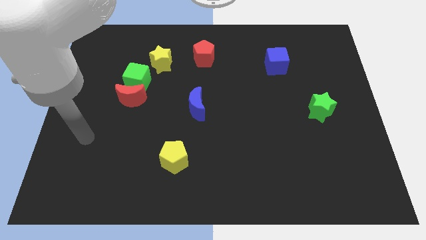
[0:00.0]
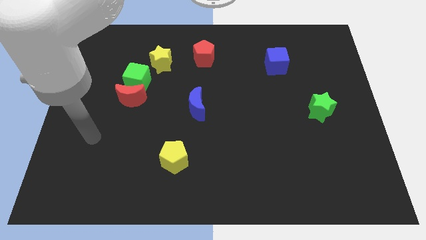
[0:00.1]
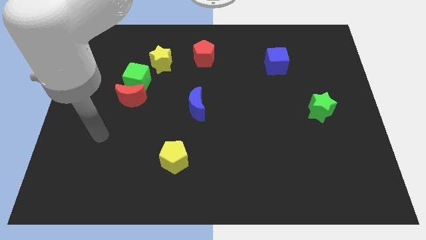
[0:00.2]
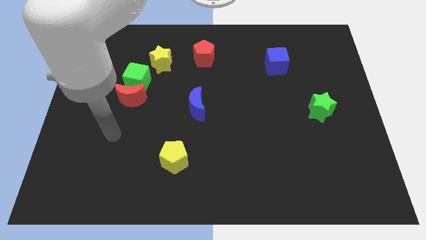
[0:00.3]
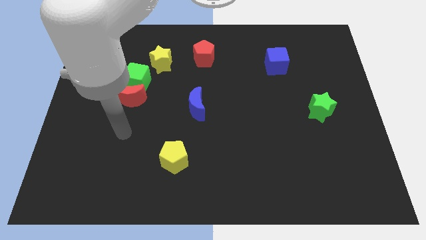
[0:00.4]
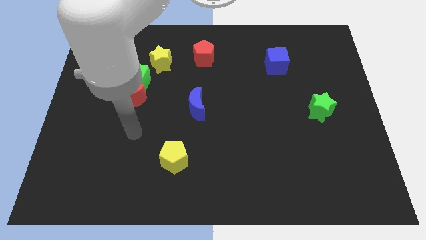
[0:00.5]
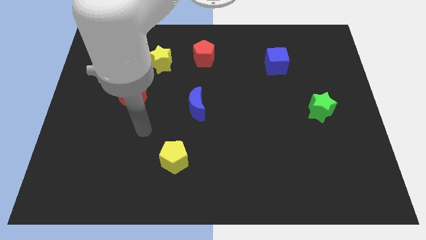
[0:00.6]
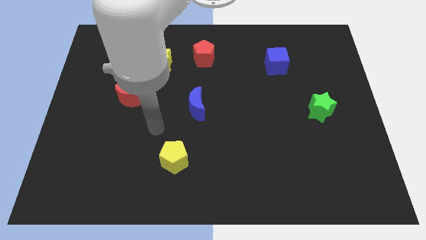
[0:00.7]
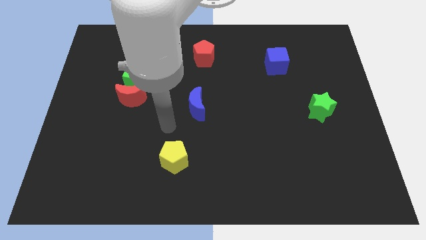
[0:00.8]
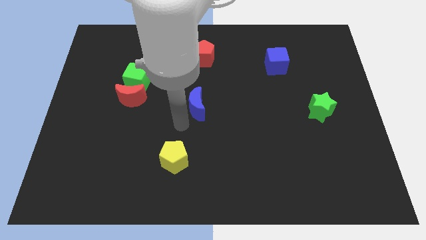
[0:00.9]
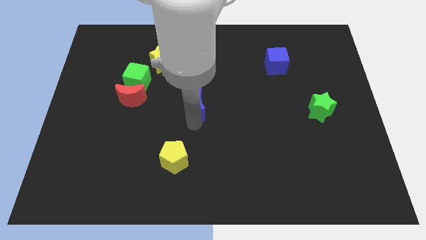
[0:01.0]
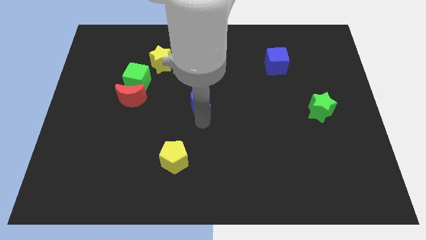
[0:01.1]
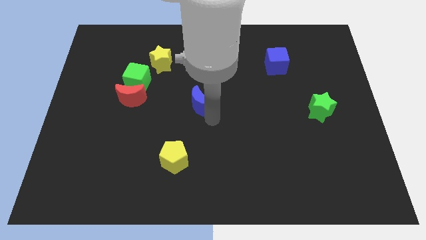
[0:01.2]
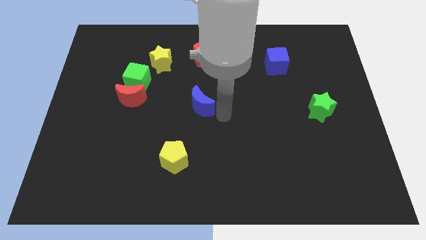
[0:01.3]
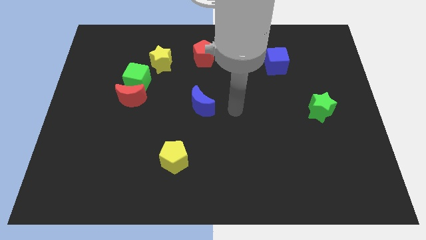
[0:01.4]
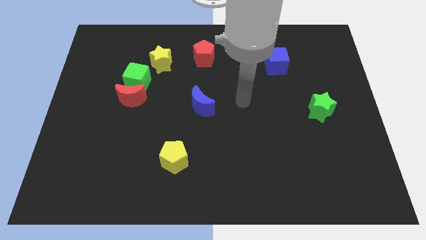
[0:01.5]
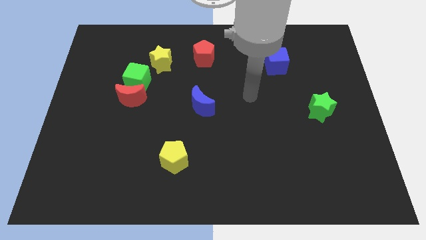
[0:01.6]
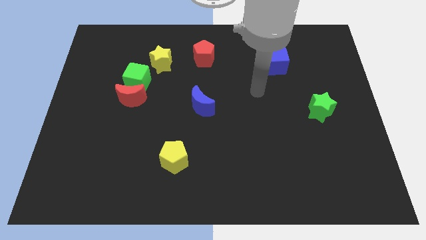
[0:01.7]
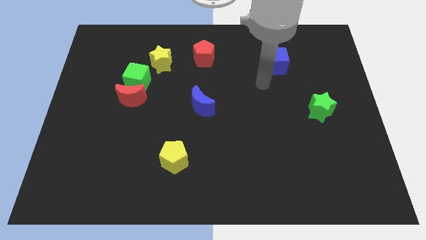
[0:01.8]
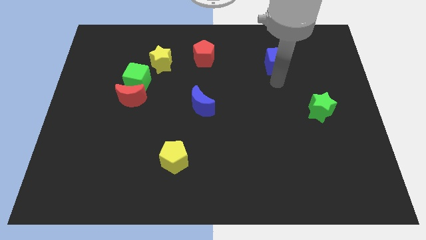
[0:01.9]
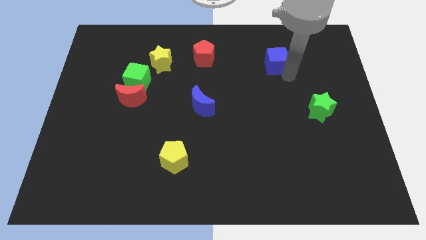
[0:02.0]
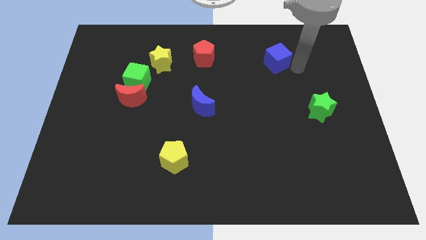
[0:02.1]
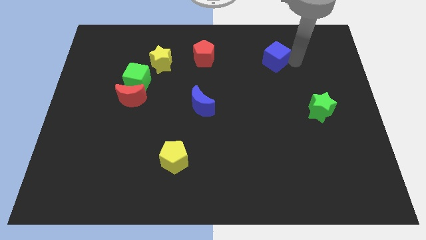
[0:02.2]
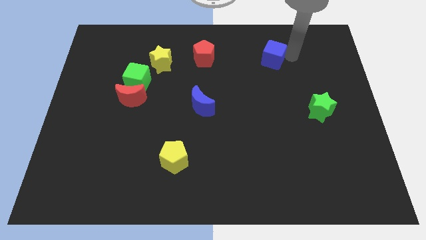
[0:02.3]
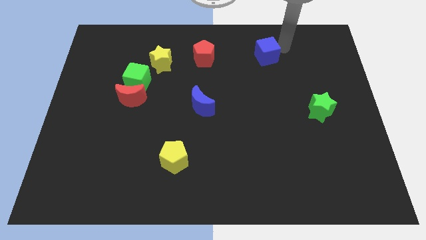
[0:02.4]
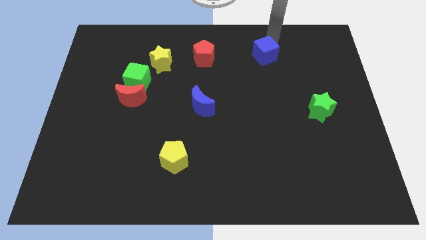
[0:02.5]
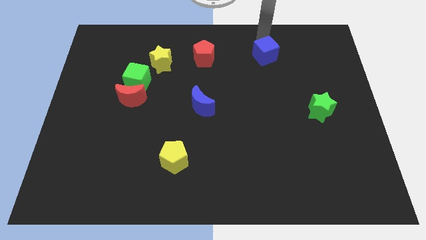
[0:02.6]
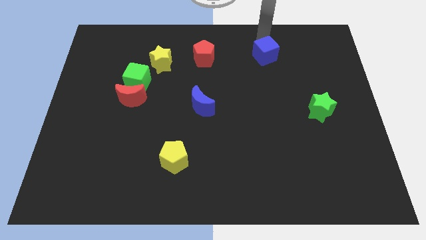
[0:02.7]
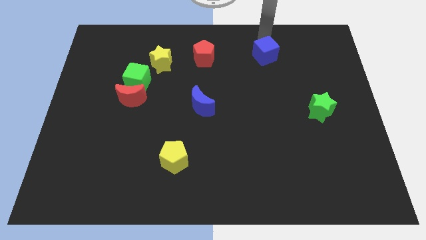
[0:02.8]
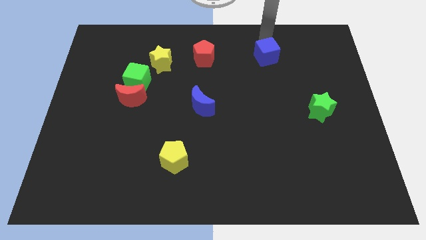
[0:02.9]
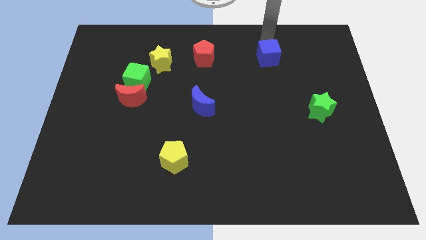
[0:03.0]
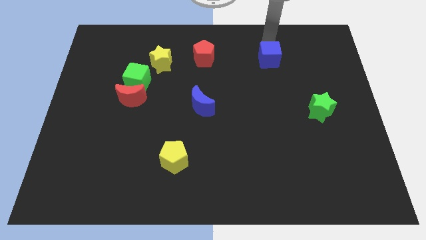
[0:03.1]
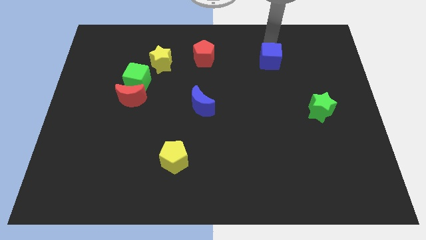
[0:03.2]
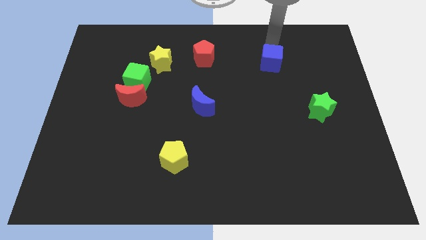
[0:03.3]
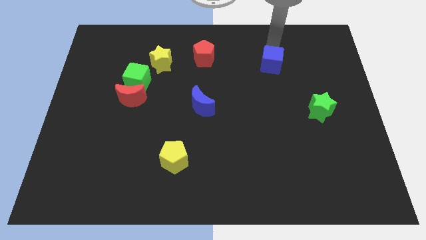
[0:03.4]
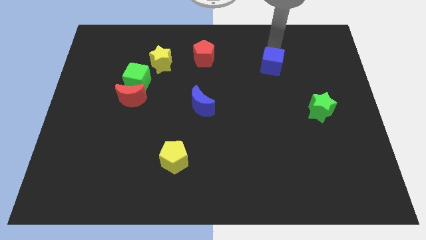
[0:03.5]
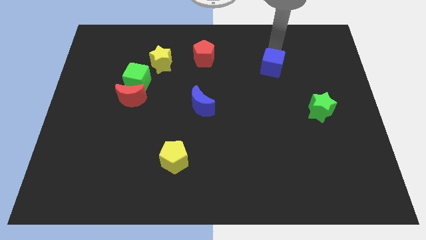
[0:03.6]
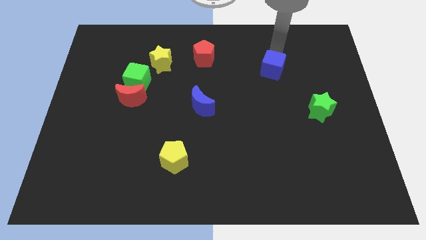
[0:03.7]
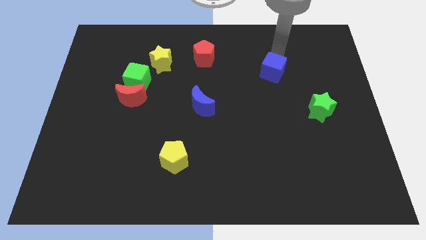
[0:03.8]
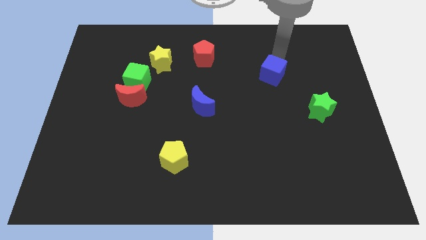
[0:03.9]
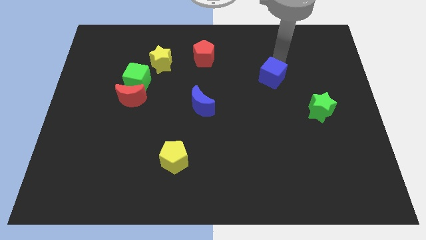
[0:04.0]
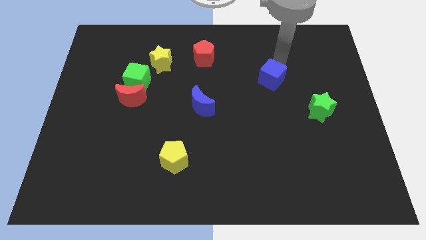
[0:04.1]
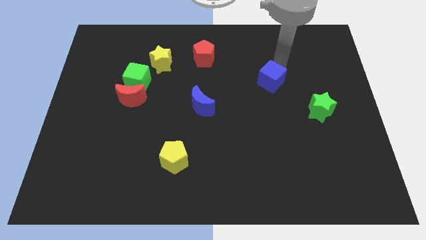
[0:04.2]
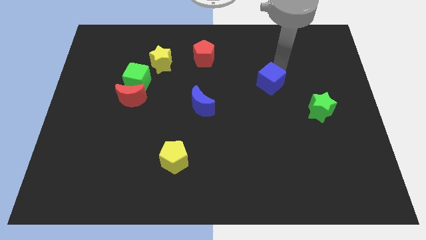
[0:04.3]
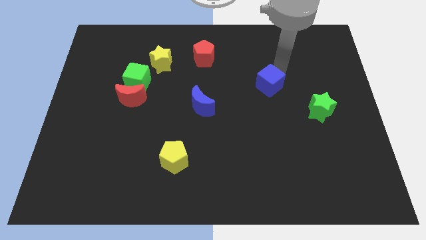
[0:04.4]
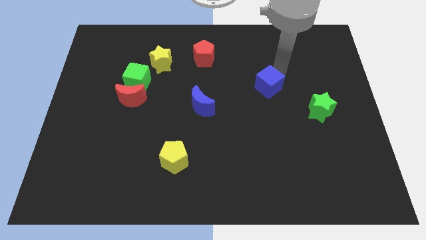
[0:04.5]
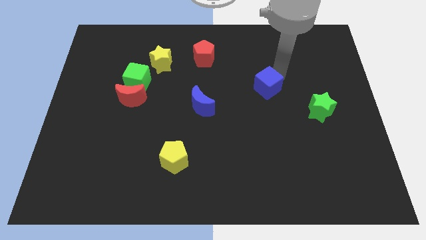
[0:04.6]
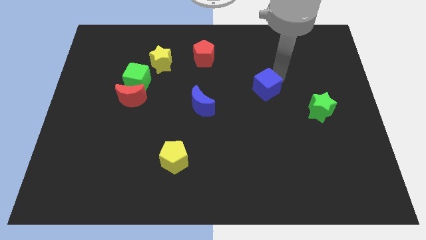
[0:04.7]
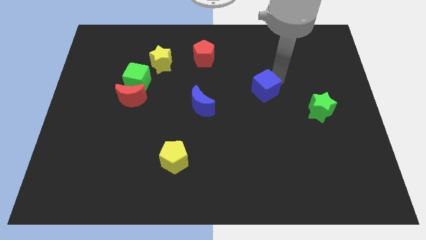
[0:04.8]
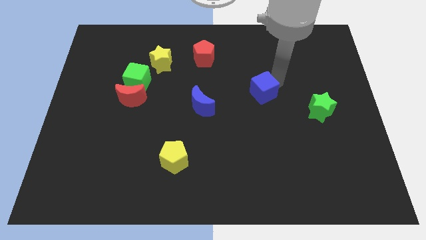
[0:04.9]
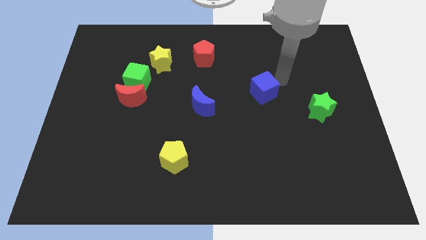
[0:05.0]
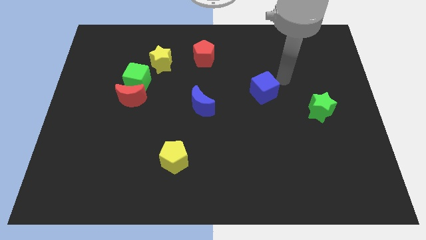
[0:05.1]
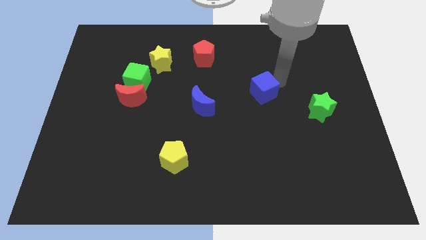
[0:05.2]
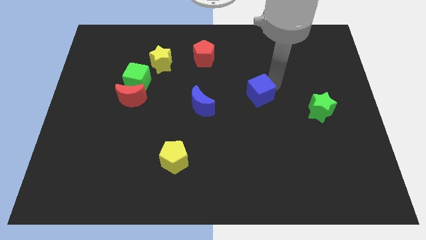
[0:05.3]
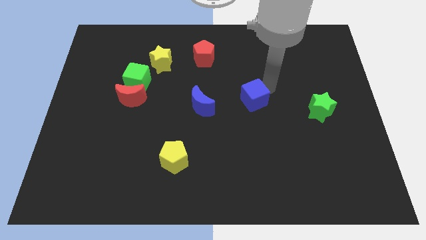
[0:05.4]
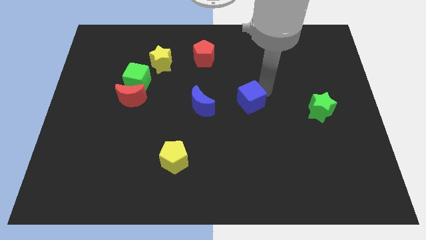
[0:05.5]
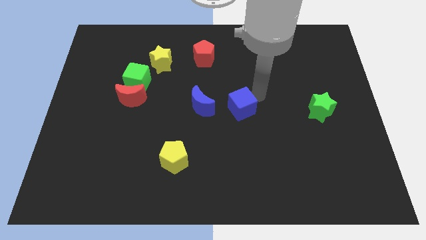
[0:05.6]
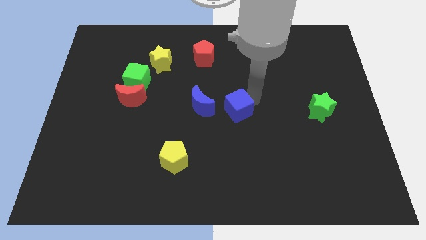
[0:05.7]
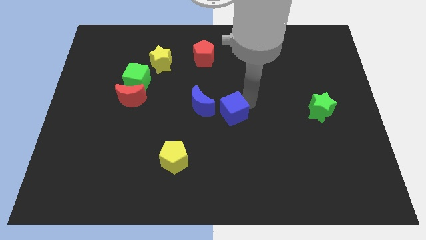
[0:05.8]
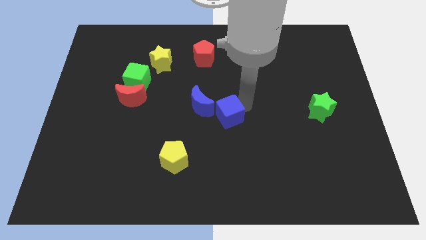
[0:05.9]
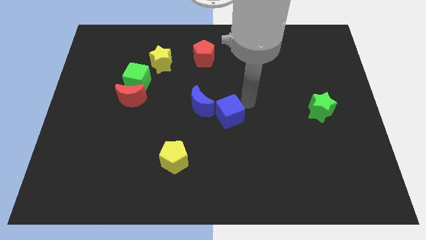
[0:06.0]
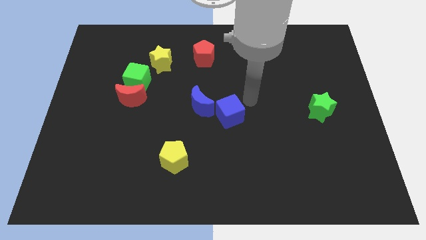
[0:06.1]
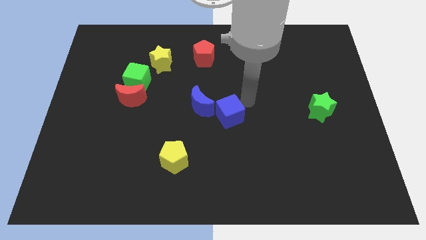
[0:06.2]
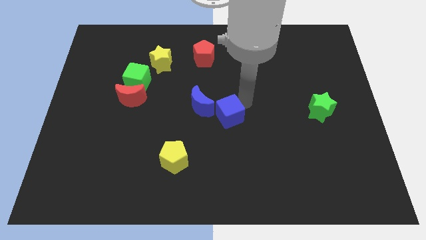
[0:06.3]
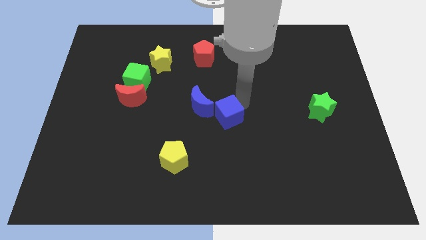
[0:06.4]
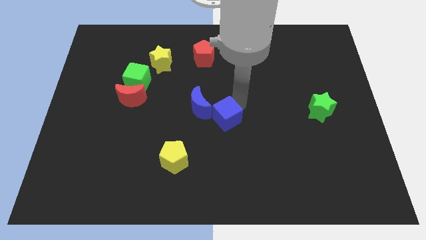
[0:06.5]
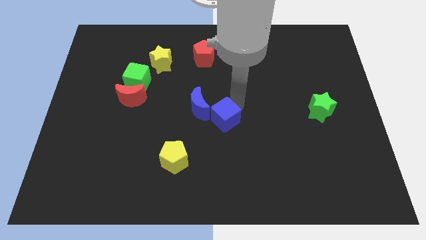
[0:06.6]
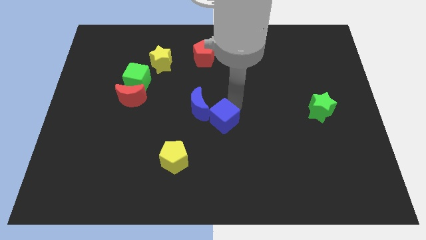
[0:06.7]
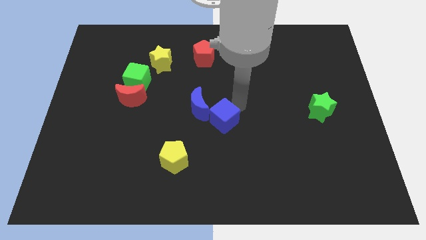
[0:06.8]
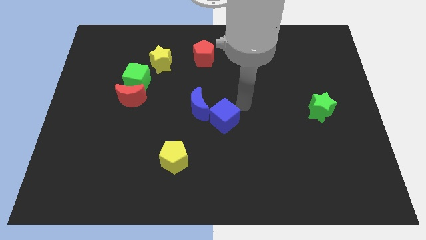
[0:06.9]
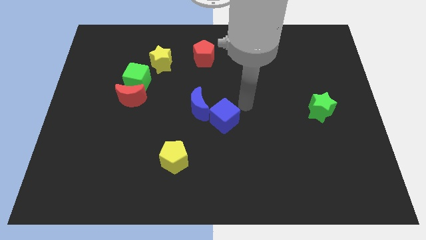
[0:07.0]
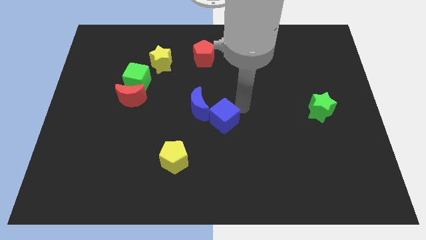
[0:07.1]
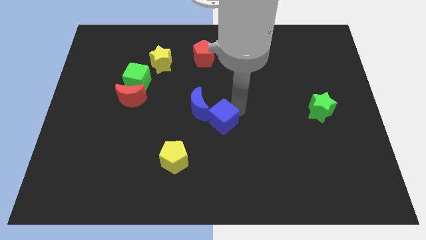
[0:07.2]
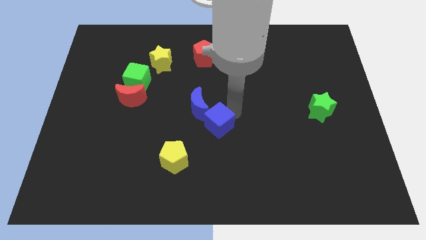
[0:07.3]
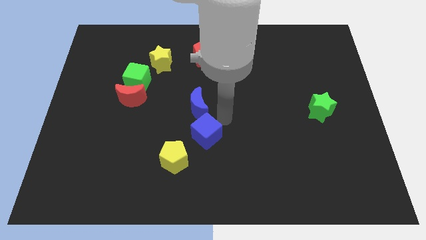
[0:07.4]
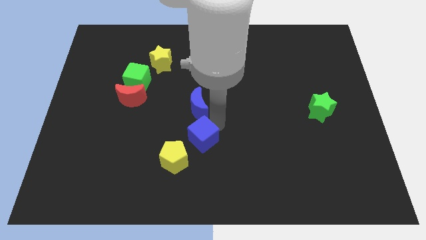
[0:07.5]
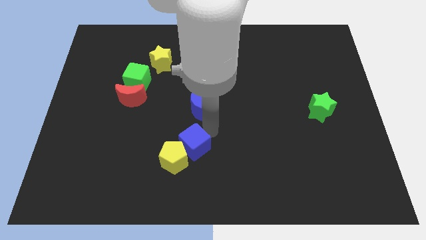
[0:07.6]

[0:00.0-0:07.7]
slide the blue cube towards the yellow pentagon
